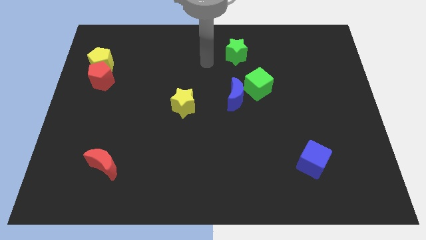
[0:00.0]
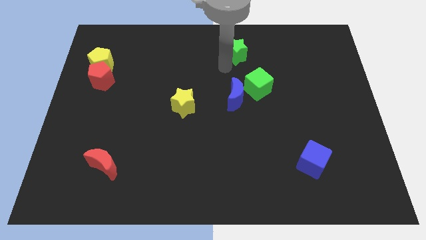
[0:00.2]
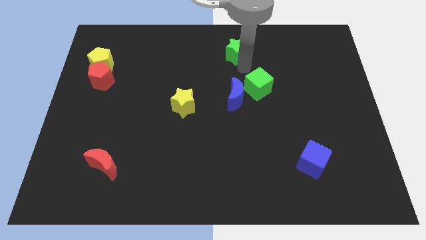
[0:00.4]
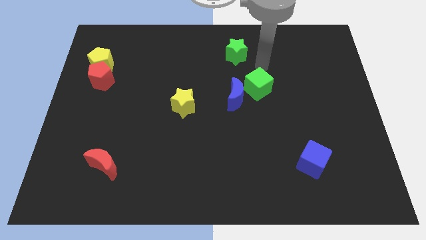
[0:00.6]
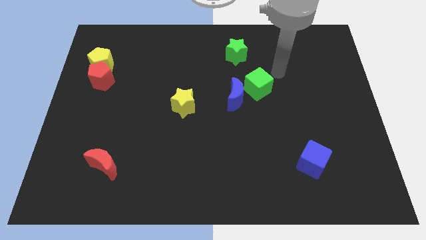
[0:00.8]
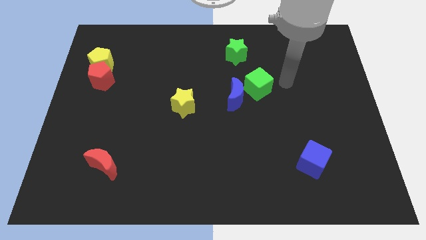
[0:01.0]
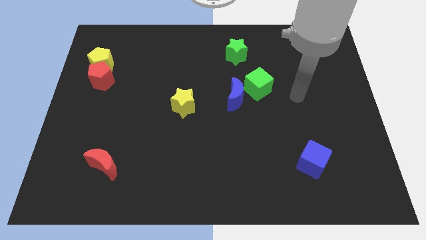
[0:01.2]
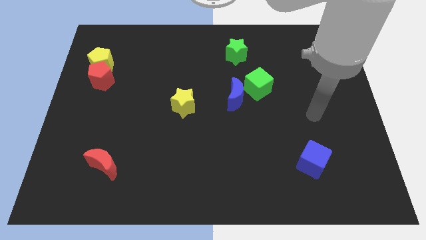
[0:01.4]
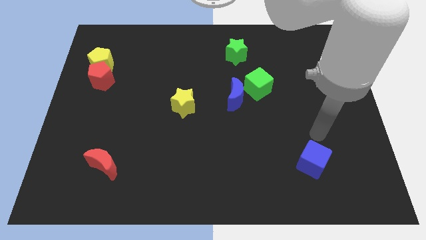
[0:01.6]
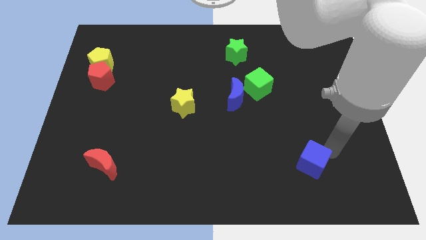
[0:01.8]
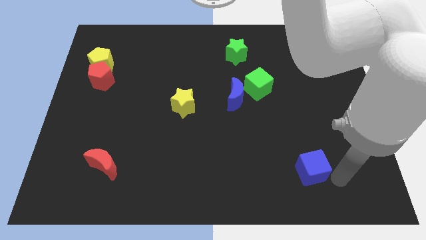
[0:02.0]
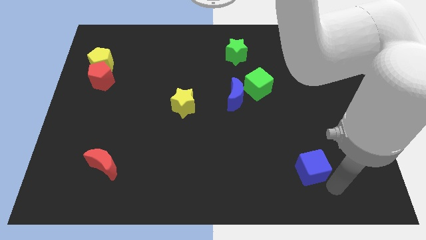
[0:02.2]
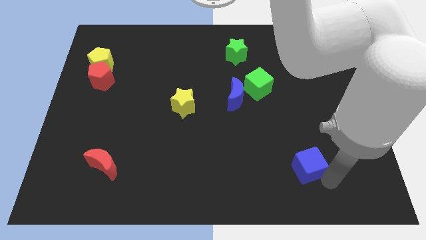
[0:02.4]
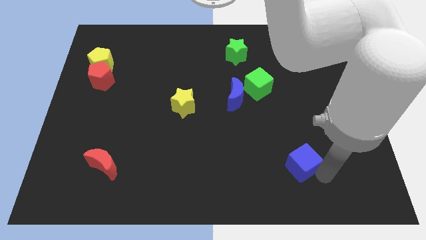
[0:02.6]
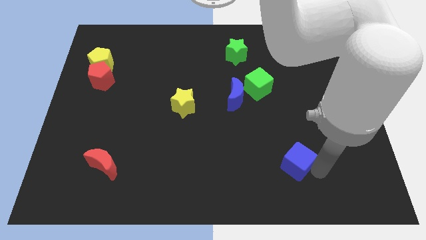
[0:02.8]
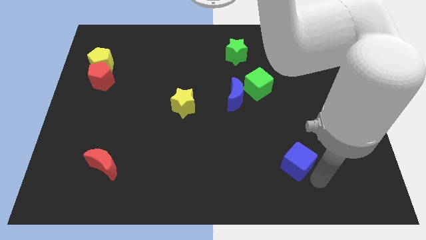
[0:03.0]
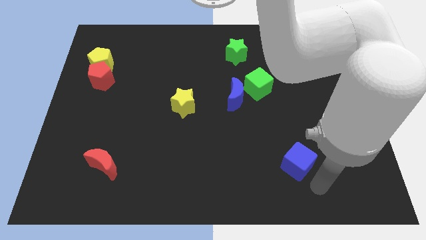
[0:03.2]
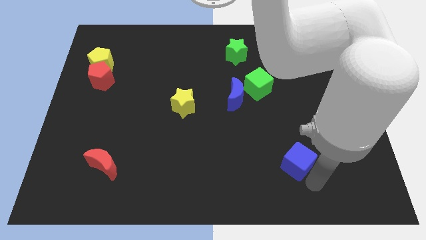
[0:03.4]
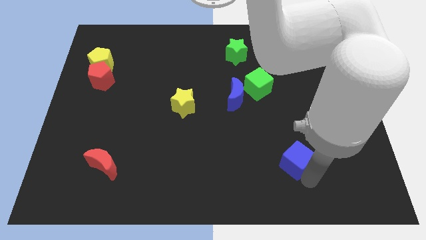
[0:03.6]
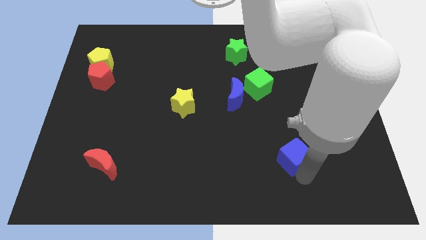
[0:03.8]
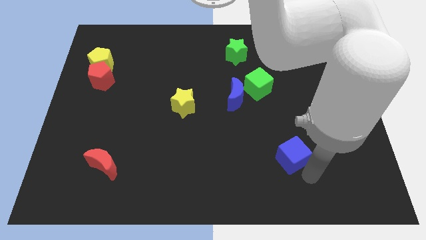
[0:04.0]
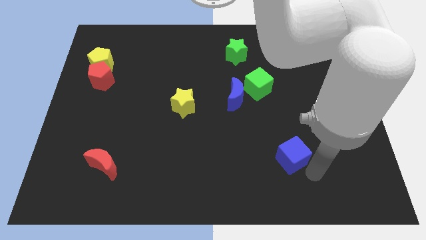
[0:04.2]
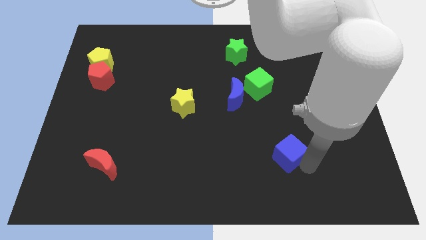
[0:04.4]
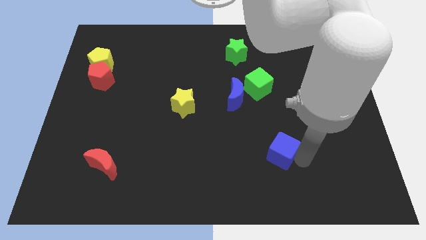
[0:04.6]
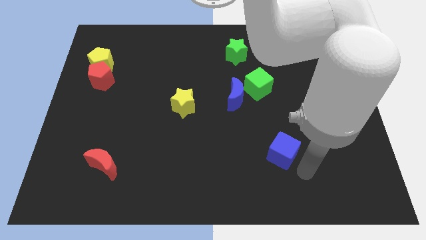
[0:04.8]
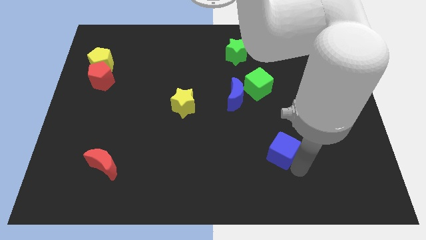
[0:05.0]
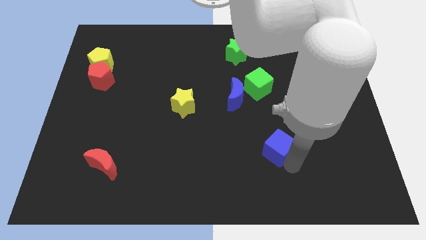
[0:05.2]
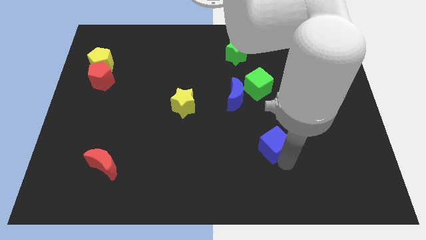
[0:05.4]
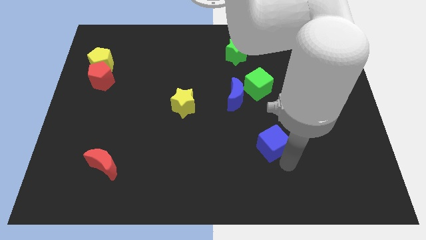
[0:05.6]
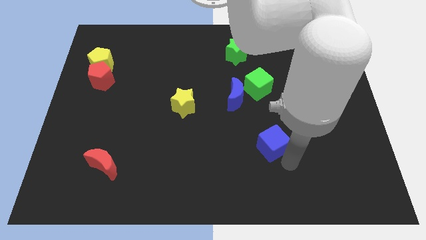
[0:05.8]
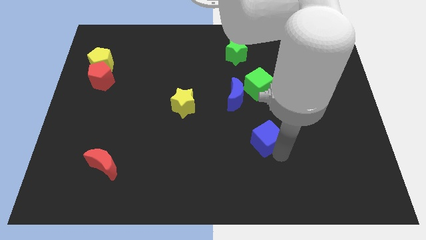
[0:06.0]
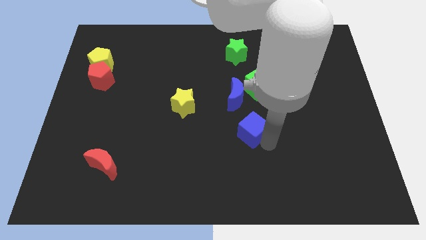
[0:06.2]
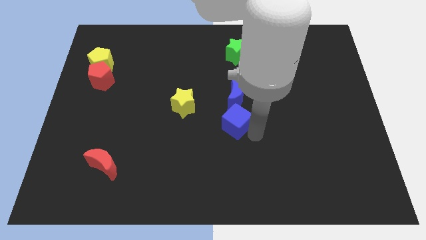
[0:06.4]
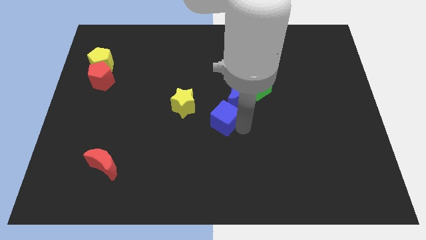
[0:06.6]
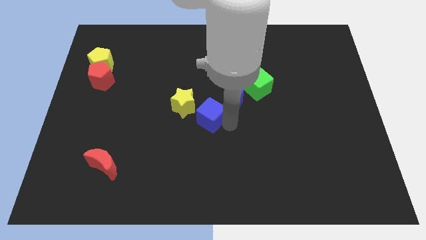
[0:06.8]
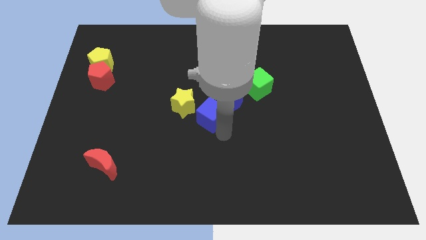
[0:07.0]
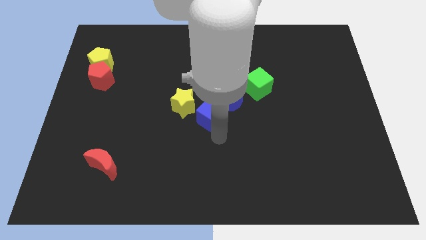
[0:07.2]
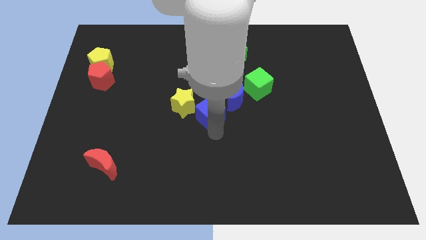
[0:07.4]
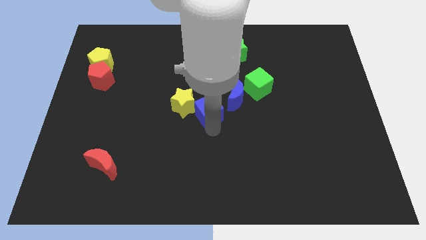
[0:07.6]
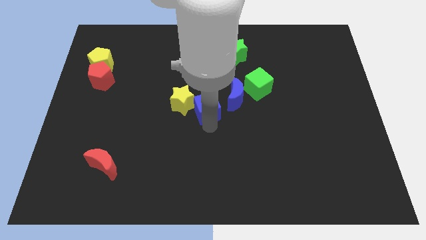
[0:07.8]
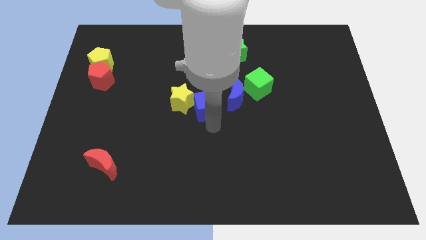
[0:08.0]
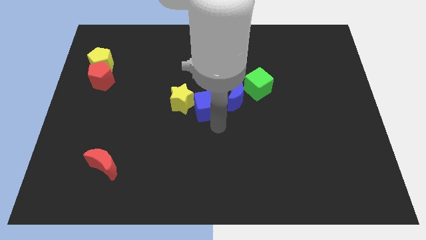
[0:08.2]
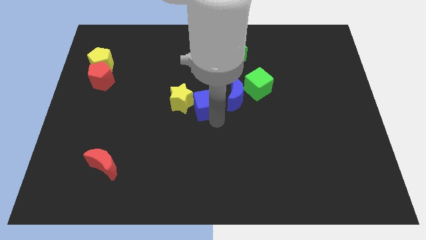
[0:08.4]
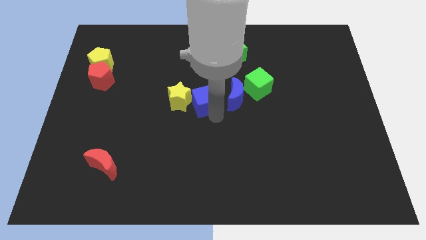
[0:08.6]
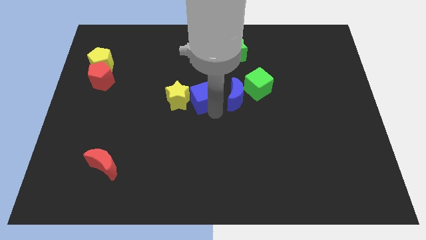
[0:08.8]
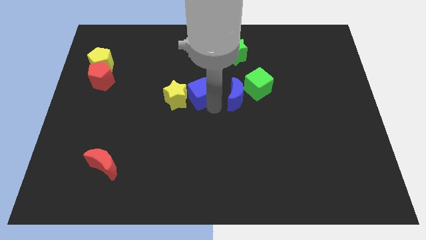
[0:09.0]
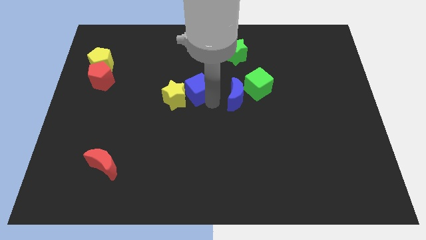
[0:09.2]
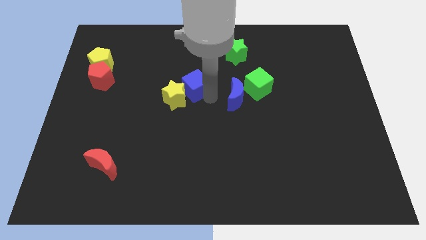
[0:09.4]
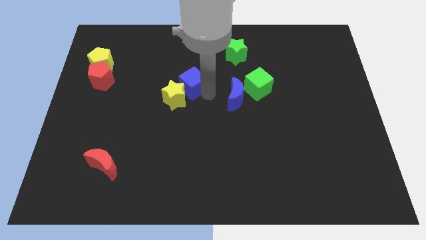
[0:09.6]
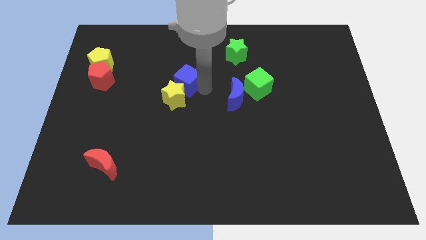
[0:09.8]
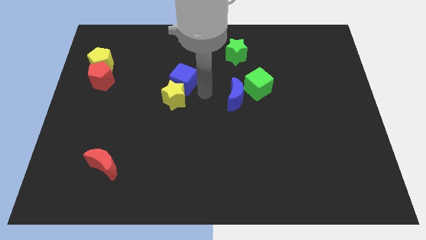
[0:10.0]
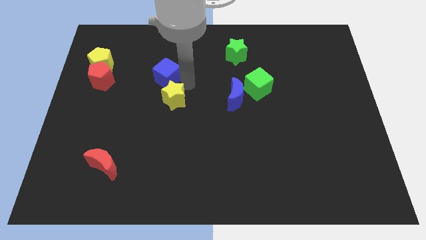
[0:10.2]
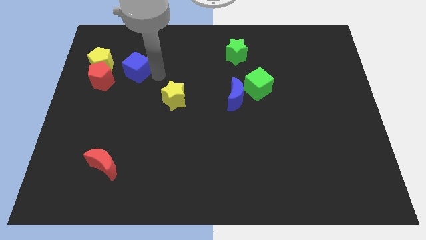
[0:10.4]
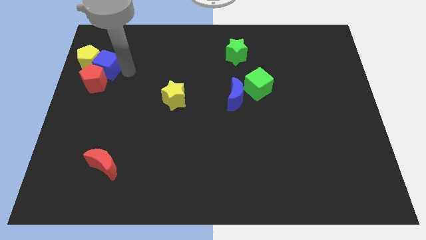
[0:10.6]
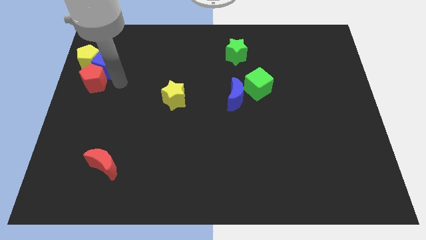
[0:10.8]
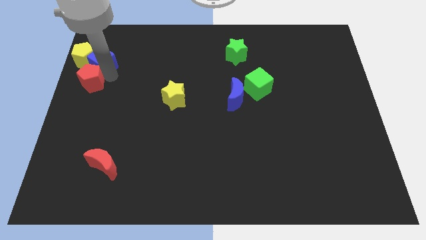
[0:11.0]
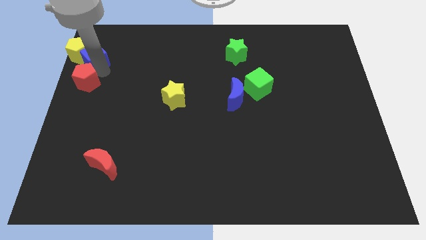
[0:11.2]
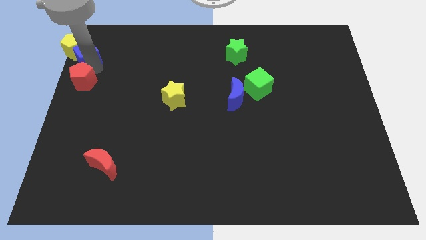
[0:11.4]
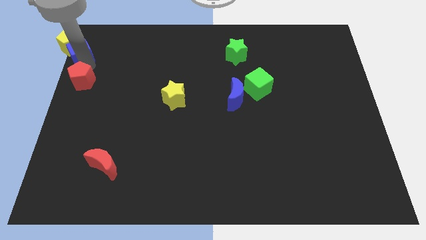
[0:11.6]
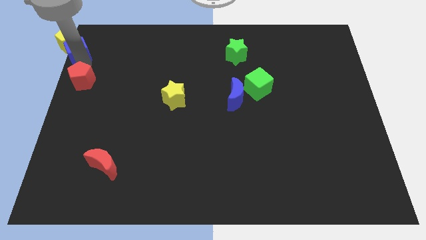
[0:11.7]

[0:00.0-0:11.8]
push the blue cube to the top left

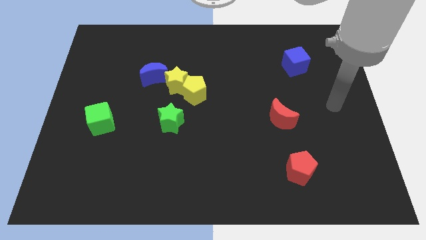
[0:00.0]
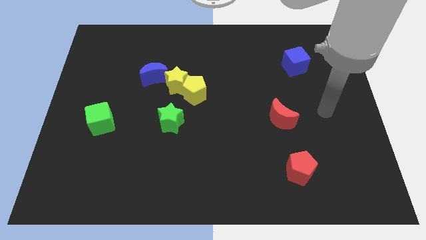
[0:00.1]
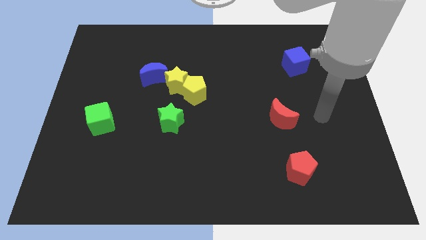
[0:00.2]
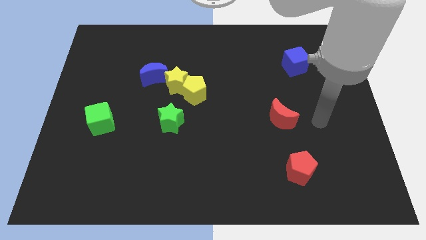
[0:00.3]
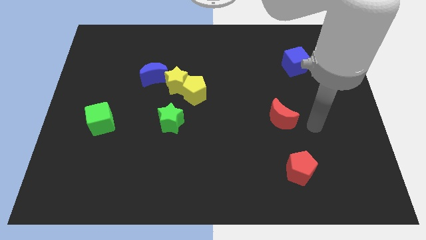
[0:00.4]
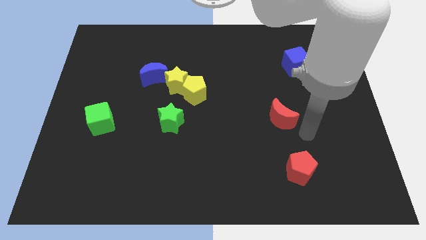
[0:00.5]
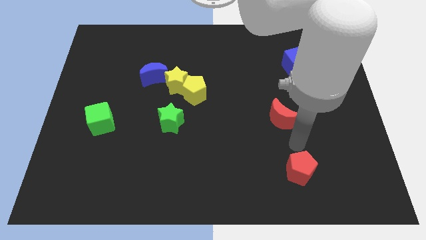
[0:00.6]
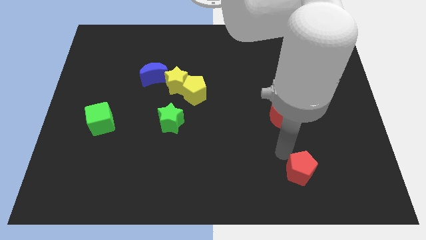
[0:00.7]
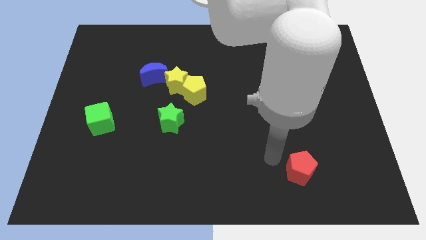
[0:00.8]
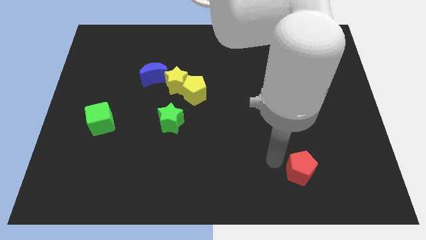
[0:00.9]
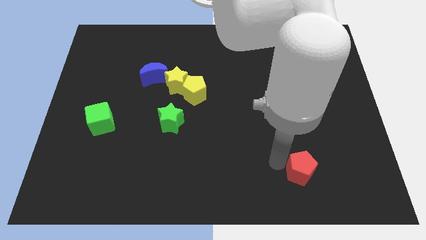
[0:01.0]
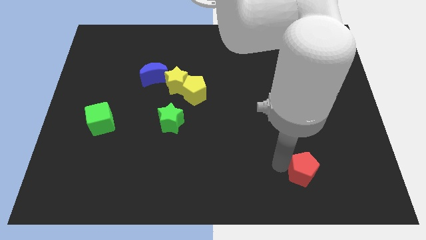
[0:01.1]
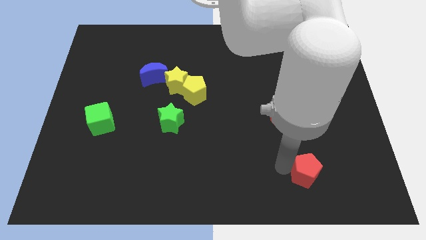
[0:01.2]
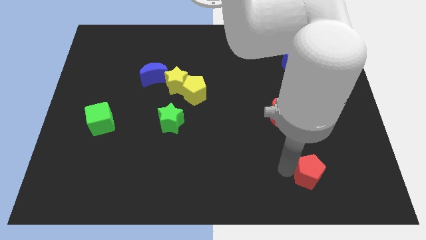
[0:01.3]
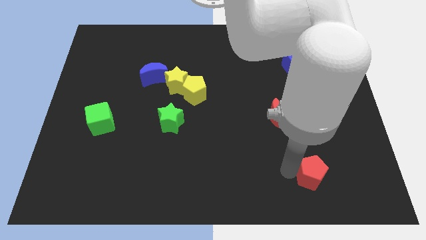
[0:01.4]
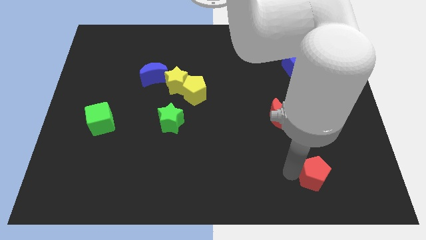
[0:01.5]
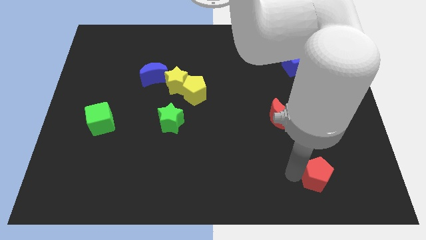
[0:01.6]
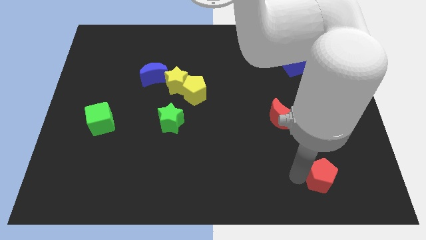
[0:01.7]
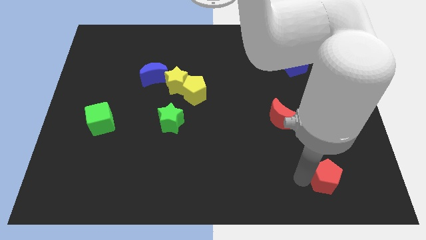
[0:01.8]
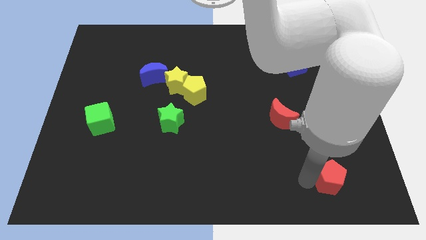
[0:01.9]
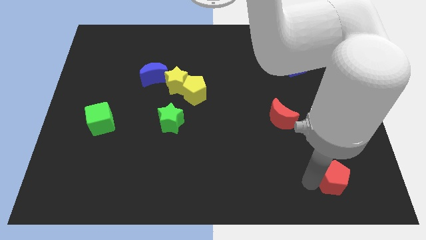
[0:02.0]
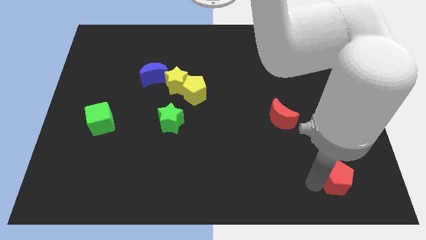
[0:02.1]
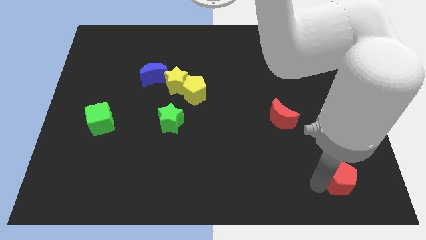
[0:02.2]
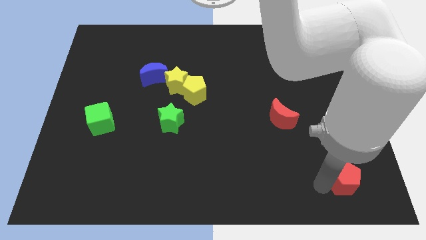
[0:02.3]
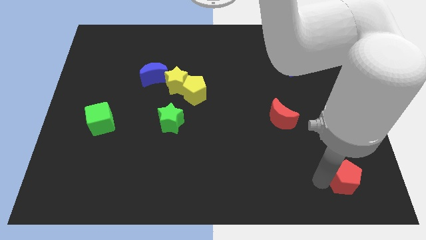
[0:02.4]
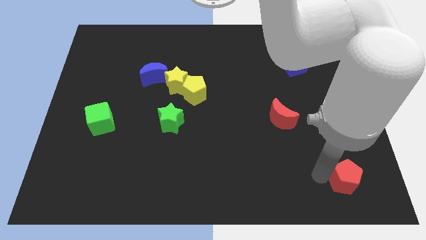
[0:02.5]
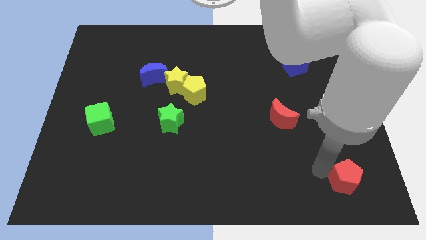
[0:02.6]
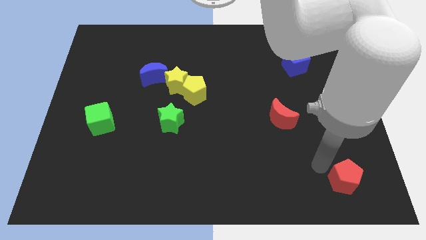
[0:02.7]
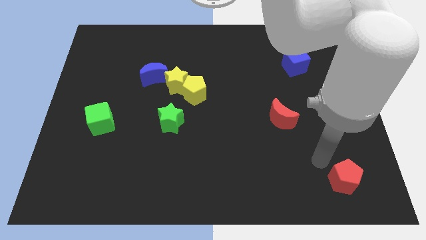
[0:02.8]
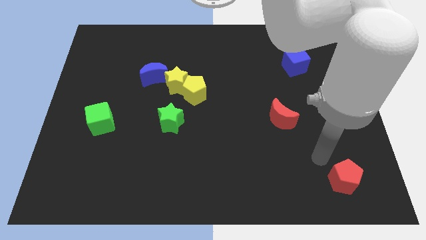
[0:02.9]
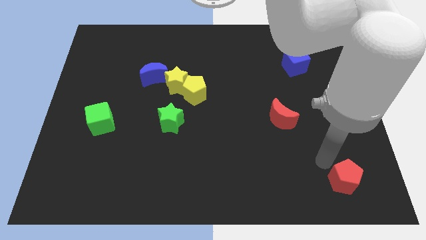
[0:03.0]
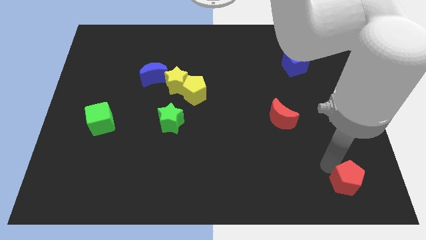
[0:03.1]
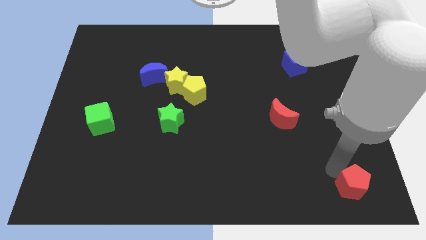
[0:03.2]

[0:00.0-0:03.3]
slide the red pentagon to the bottom right corner
